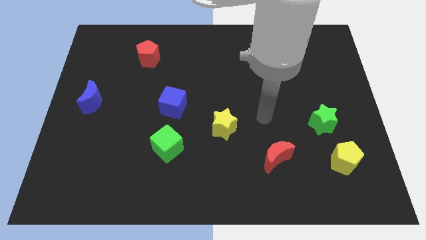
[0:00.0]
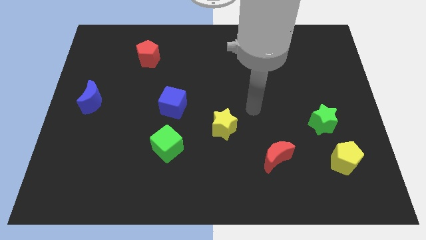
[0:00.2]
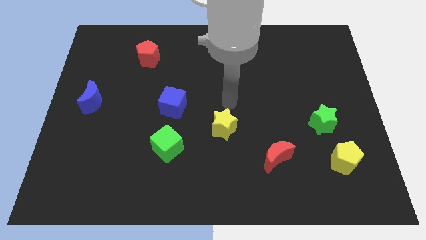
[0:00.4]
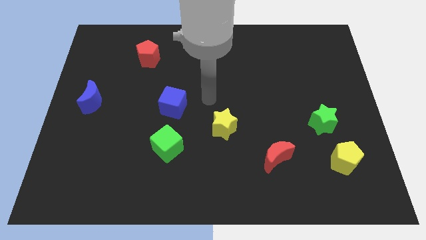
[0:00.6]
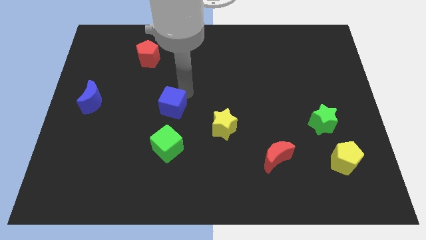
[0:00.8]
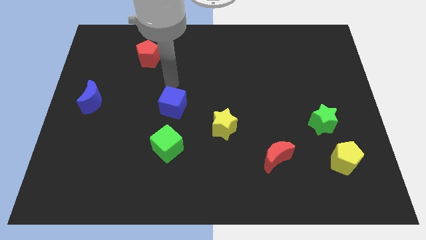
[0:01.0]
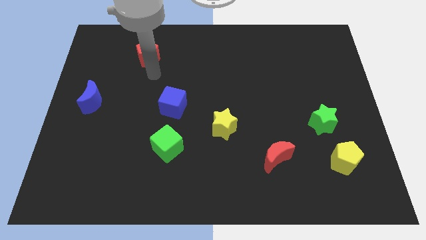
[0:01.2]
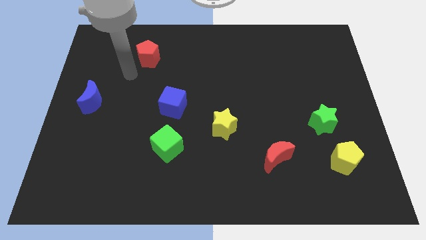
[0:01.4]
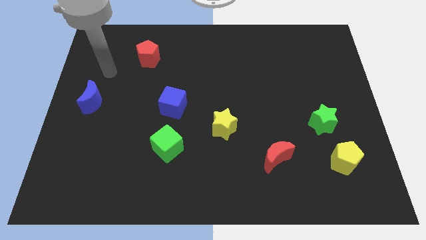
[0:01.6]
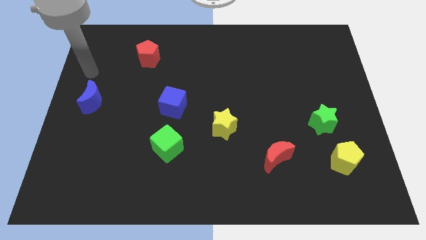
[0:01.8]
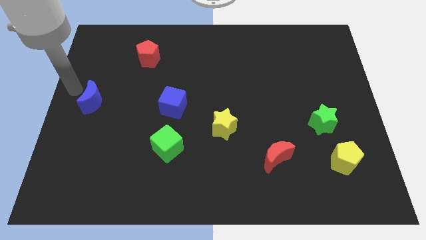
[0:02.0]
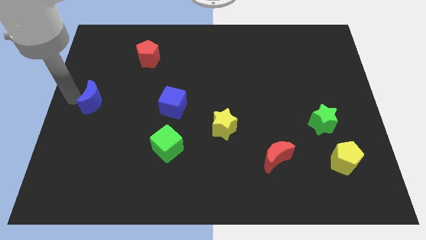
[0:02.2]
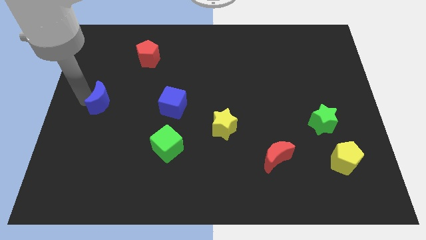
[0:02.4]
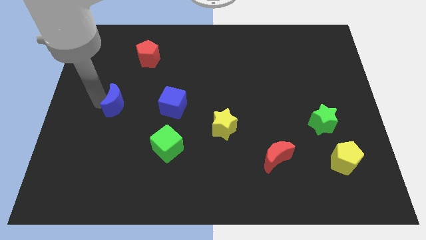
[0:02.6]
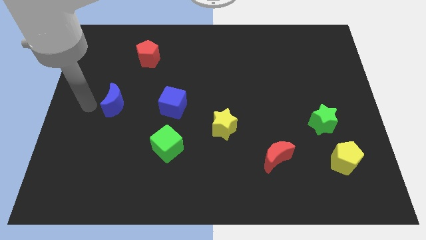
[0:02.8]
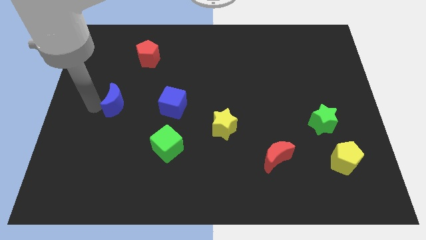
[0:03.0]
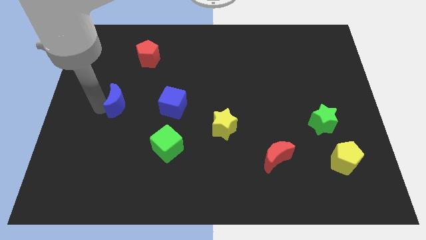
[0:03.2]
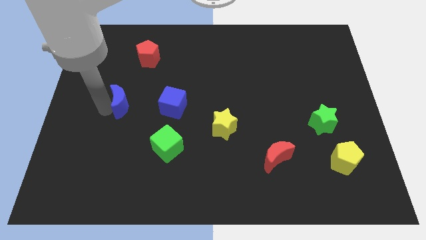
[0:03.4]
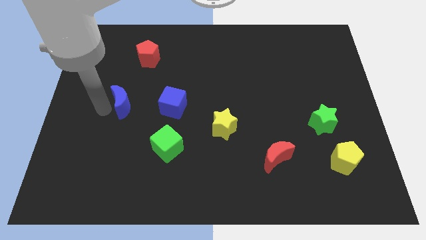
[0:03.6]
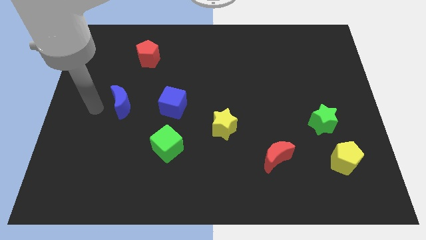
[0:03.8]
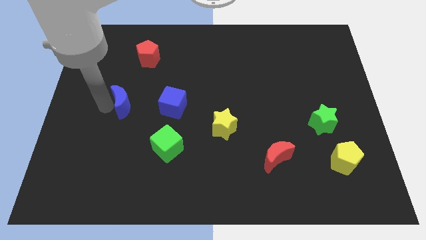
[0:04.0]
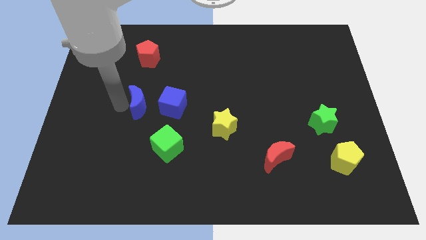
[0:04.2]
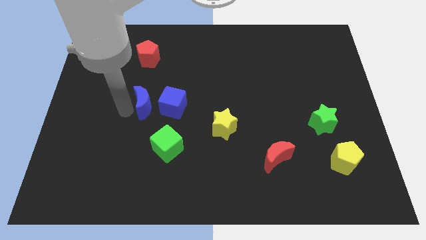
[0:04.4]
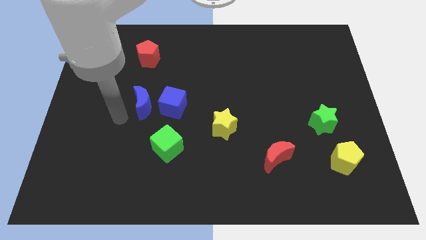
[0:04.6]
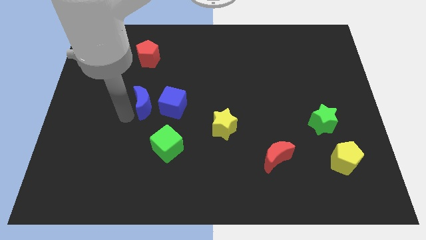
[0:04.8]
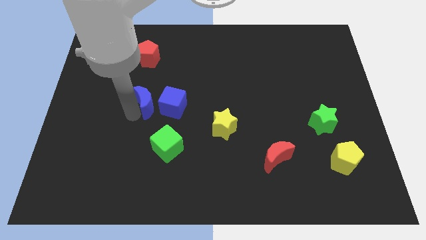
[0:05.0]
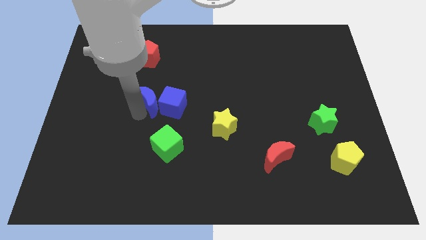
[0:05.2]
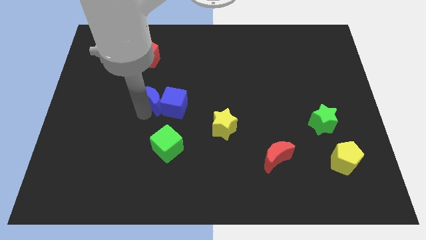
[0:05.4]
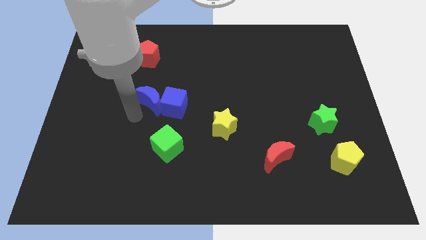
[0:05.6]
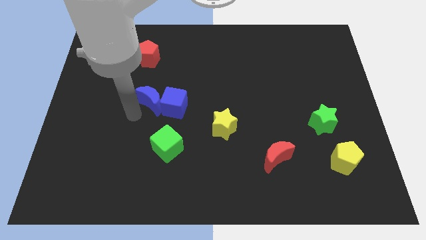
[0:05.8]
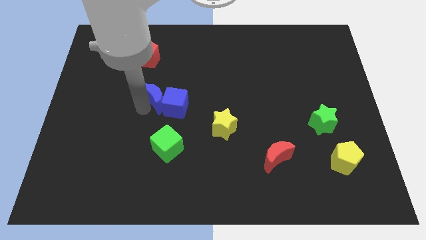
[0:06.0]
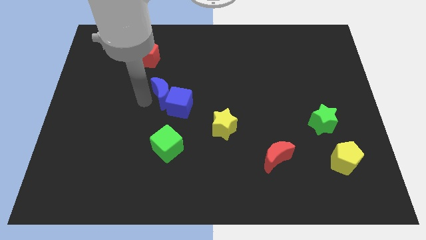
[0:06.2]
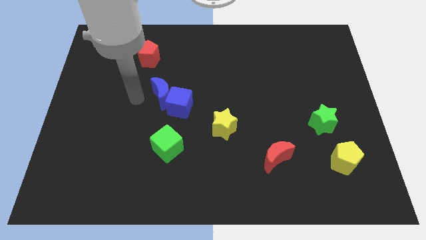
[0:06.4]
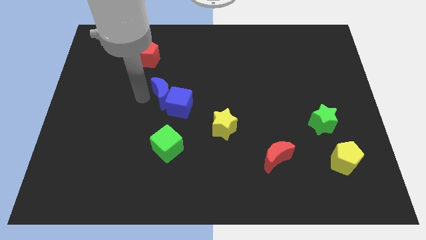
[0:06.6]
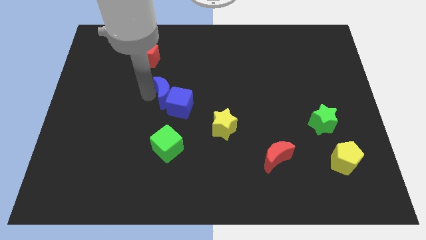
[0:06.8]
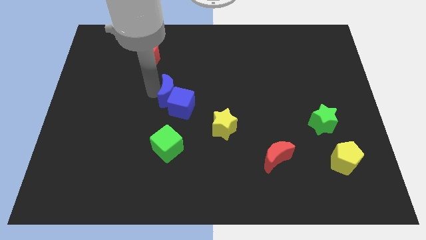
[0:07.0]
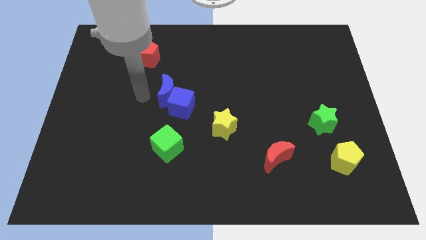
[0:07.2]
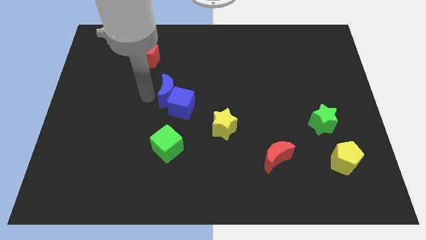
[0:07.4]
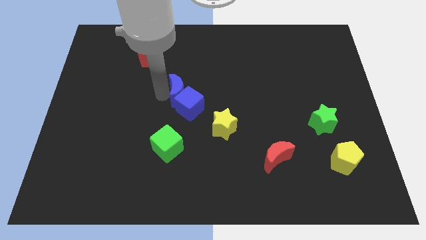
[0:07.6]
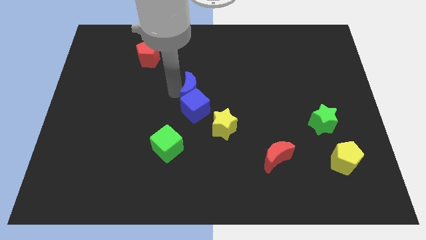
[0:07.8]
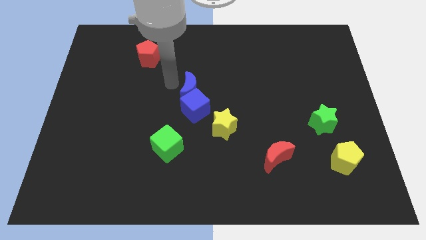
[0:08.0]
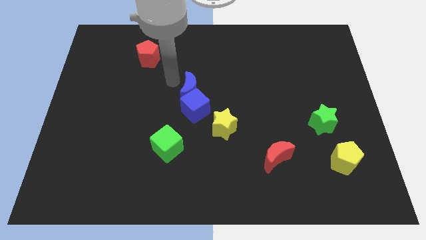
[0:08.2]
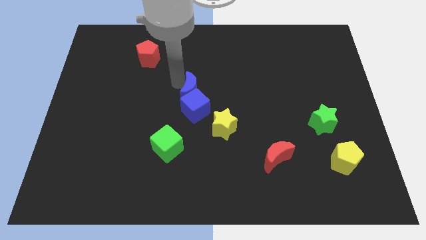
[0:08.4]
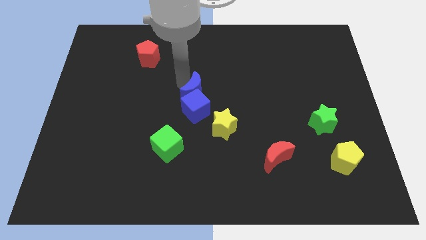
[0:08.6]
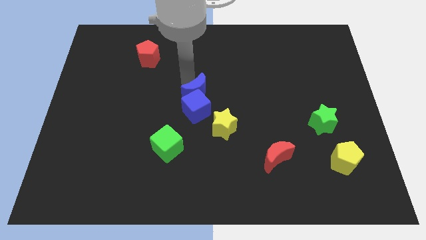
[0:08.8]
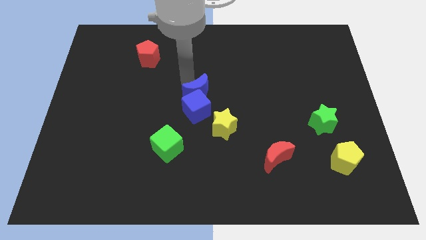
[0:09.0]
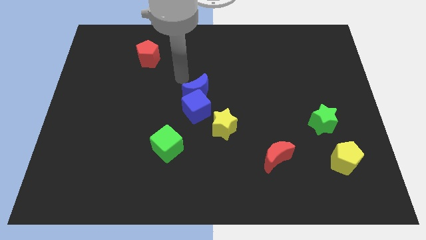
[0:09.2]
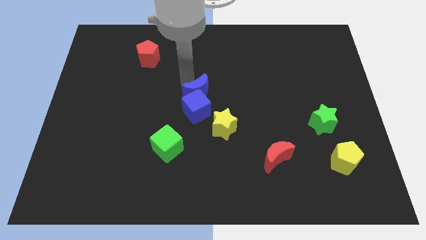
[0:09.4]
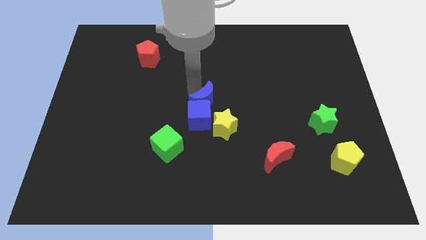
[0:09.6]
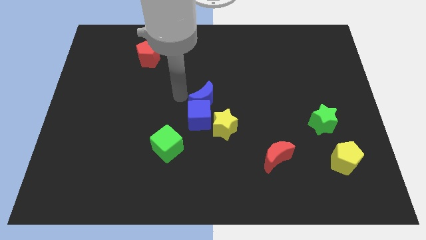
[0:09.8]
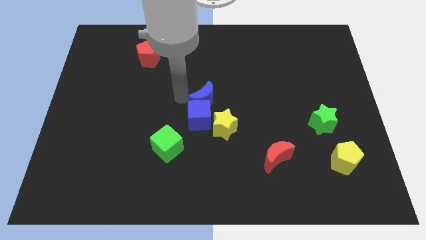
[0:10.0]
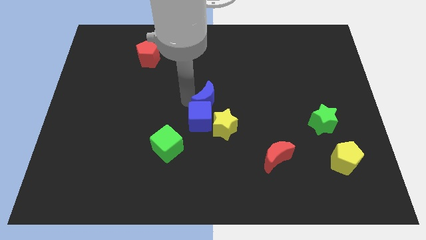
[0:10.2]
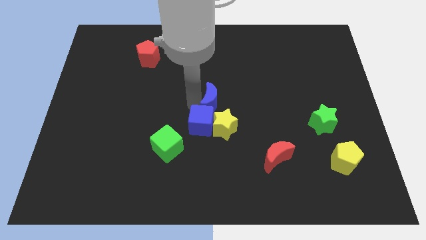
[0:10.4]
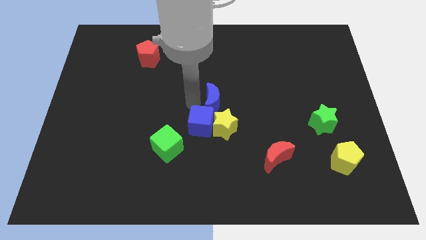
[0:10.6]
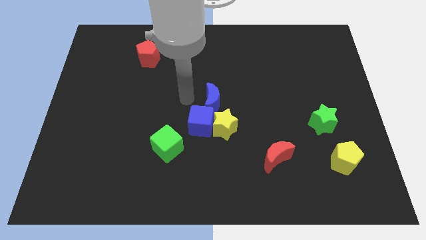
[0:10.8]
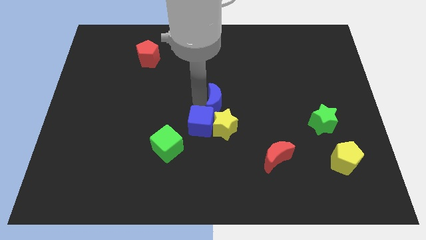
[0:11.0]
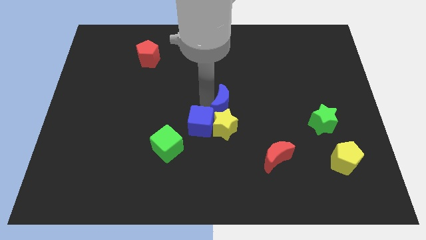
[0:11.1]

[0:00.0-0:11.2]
put the blue moon to the top right side of the yellow star

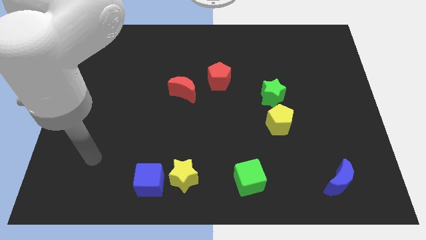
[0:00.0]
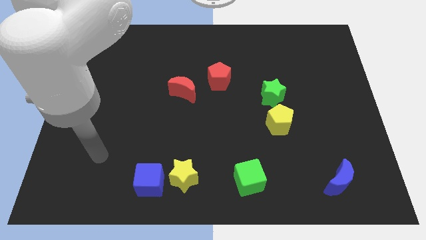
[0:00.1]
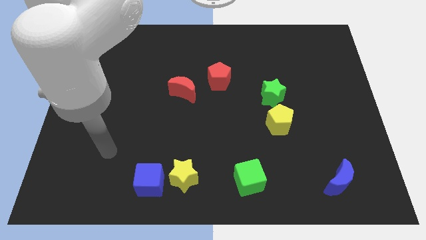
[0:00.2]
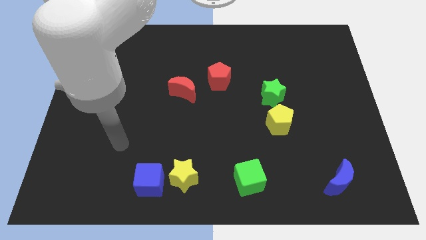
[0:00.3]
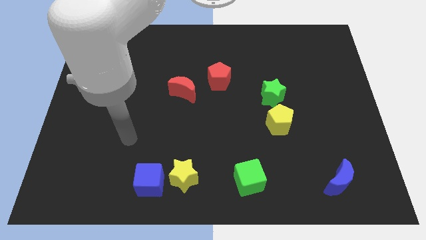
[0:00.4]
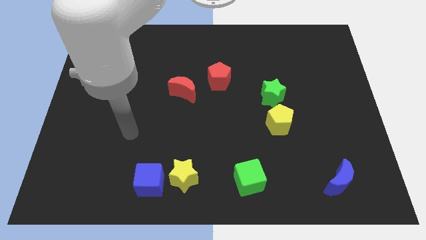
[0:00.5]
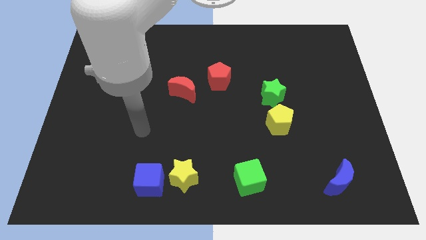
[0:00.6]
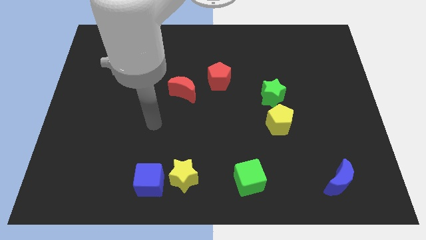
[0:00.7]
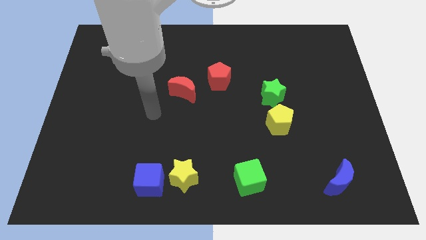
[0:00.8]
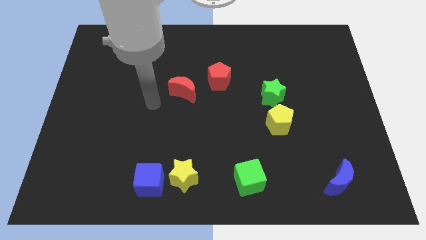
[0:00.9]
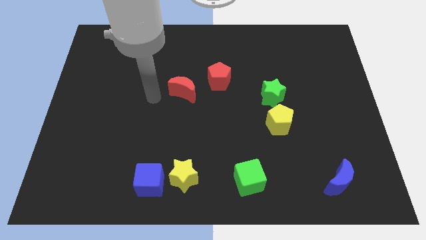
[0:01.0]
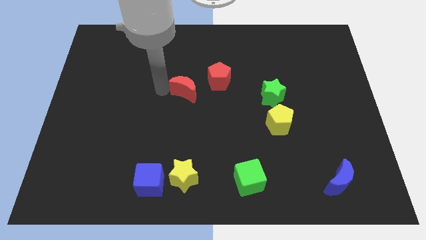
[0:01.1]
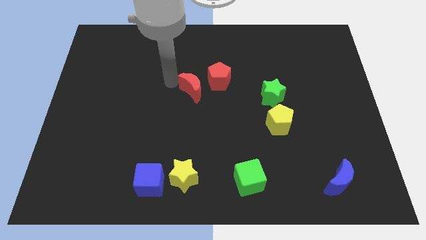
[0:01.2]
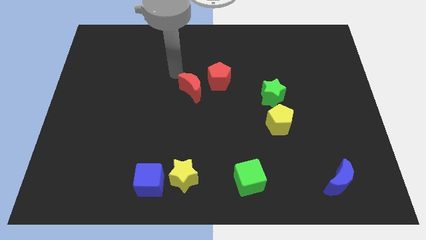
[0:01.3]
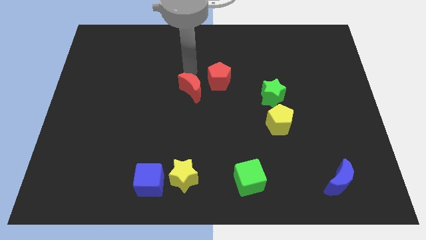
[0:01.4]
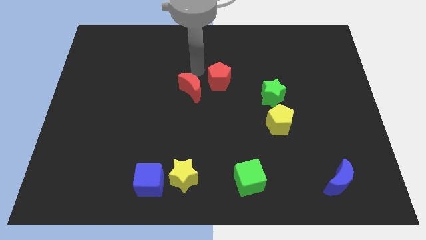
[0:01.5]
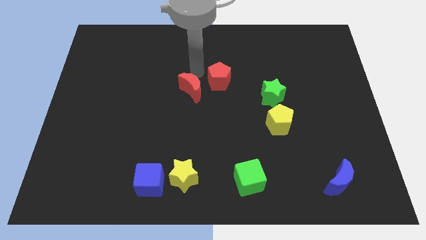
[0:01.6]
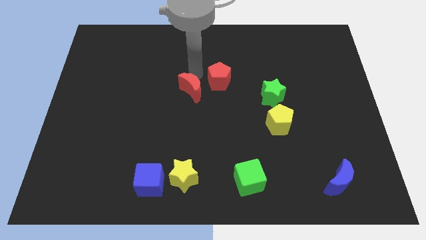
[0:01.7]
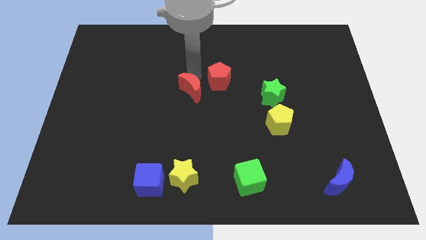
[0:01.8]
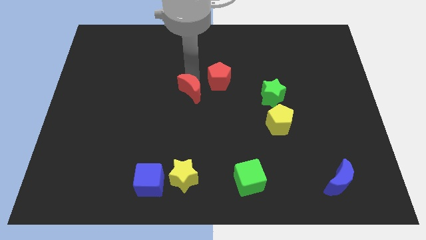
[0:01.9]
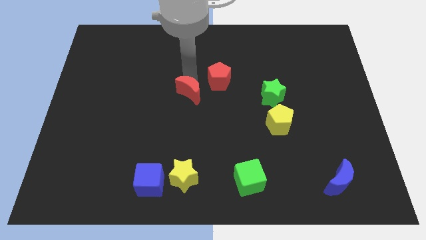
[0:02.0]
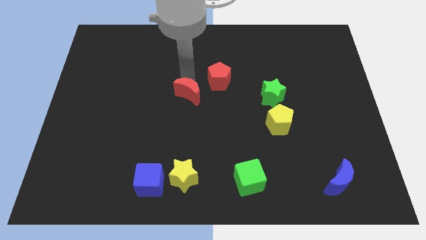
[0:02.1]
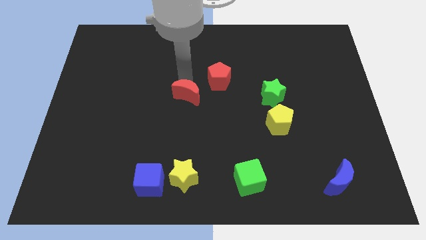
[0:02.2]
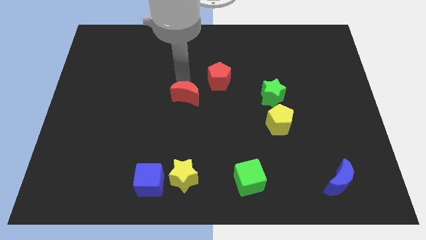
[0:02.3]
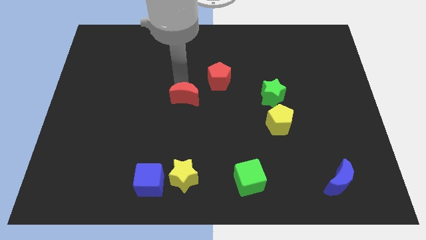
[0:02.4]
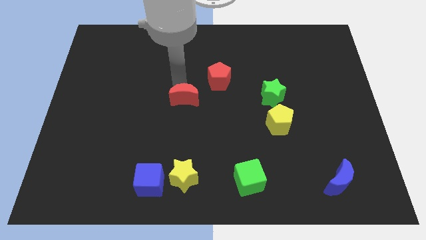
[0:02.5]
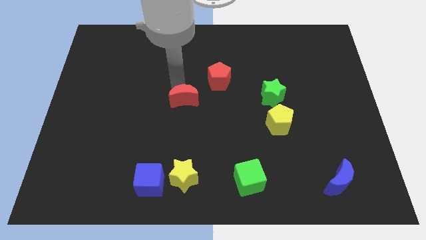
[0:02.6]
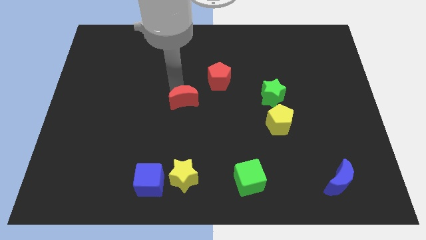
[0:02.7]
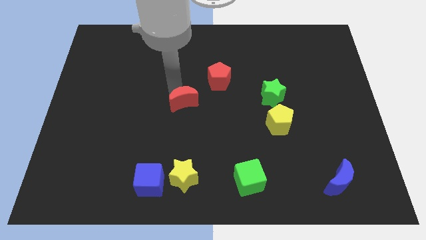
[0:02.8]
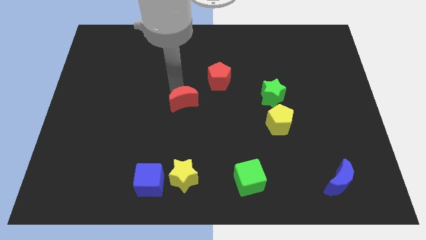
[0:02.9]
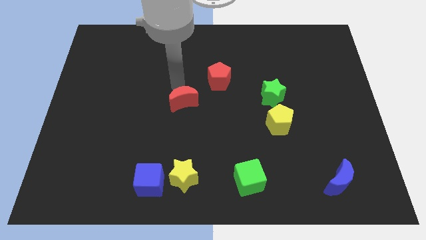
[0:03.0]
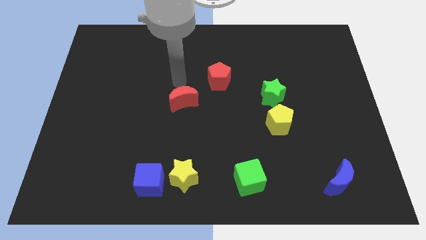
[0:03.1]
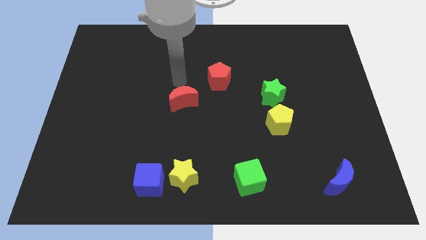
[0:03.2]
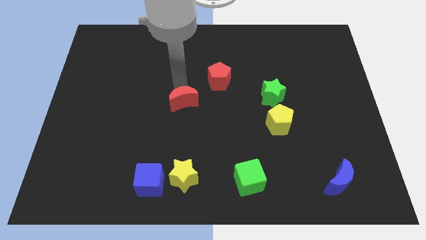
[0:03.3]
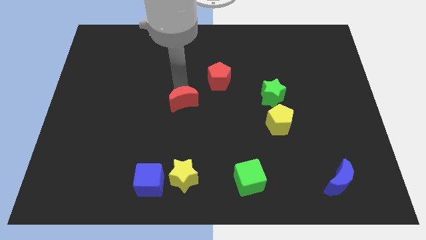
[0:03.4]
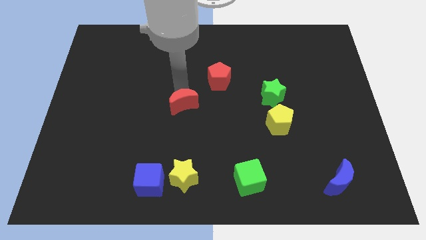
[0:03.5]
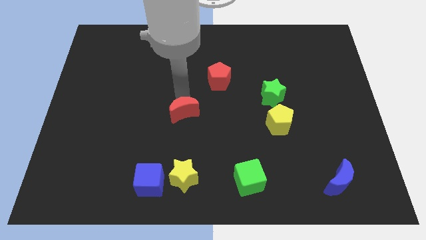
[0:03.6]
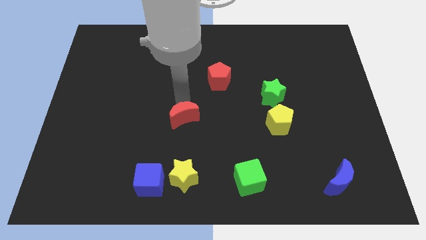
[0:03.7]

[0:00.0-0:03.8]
move the red moon to the top side of the yellow star
